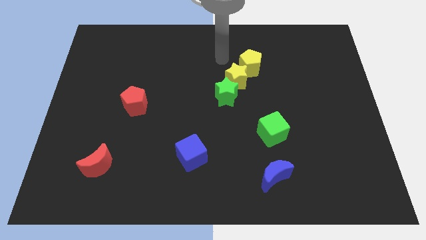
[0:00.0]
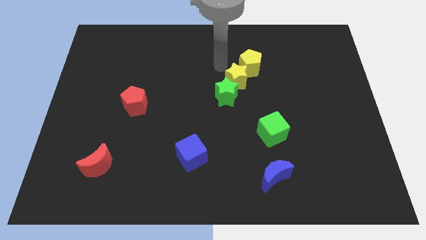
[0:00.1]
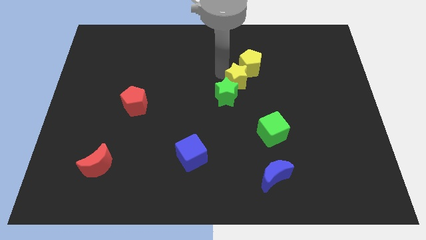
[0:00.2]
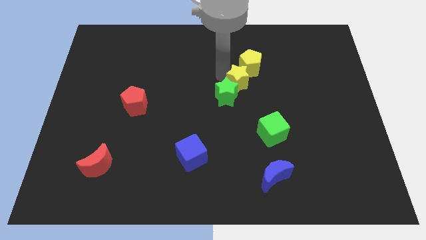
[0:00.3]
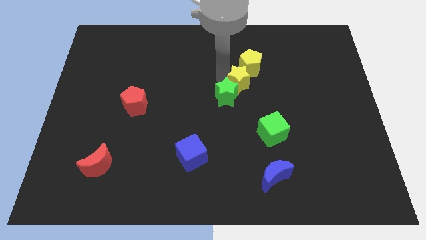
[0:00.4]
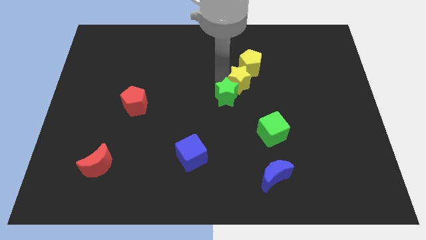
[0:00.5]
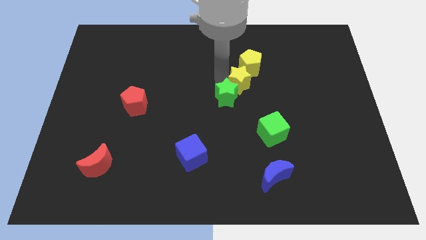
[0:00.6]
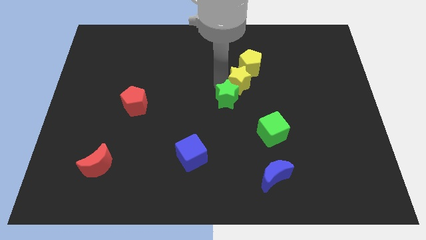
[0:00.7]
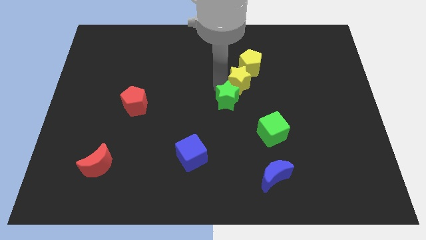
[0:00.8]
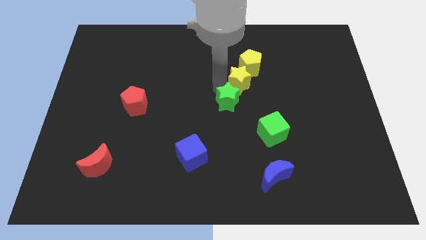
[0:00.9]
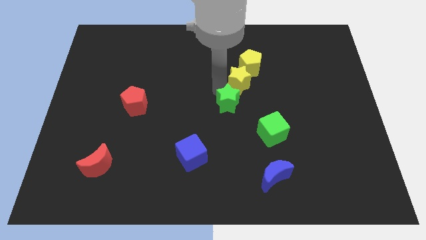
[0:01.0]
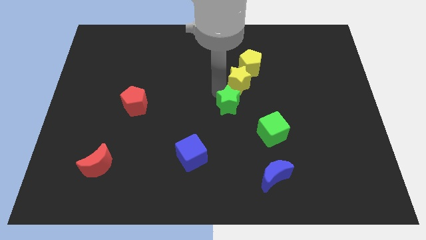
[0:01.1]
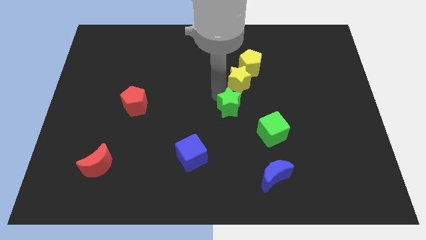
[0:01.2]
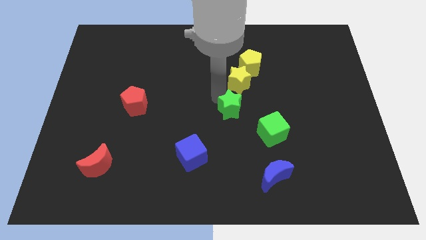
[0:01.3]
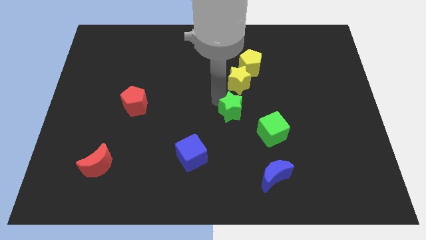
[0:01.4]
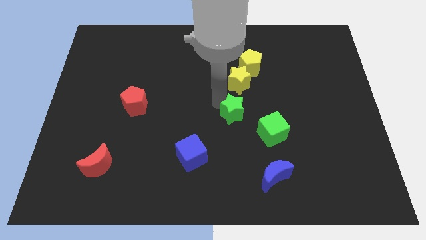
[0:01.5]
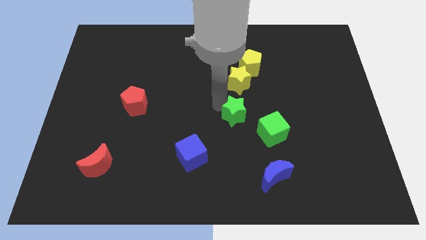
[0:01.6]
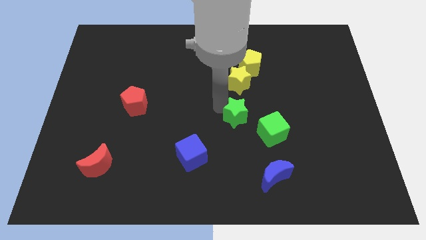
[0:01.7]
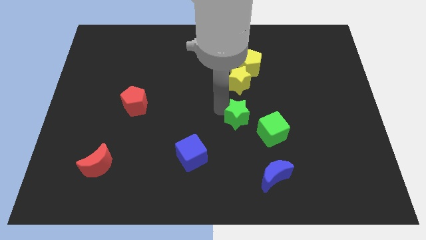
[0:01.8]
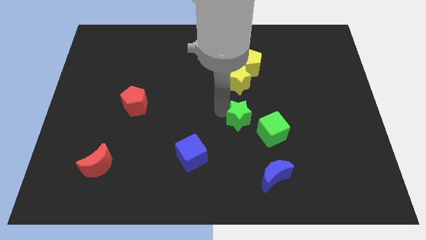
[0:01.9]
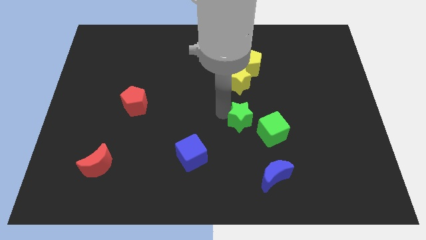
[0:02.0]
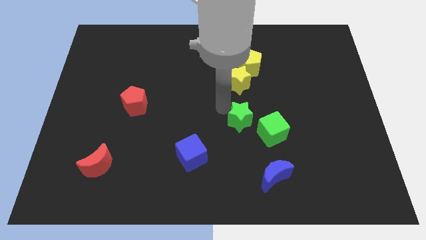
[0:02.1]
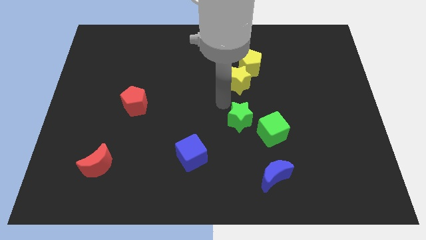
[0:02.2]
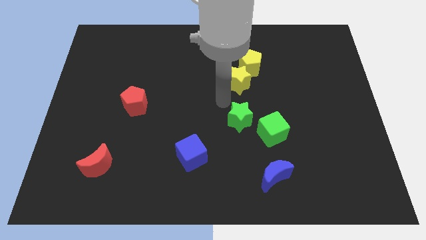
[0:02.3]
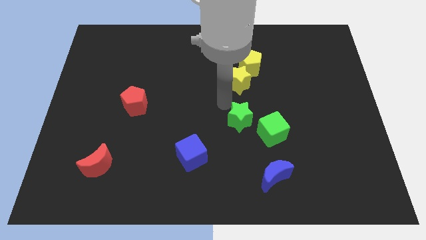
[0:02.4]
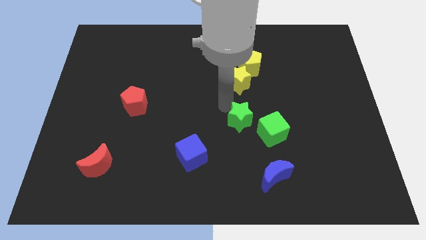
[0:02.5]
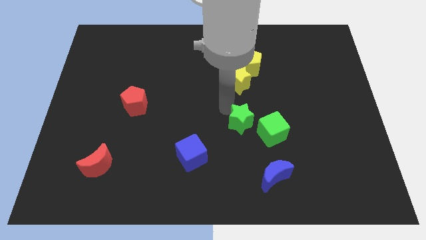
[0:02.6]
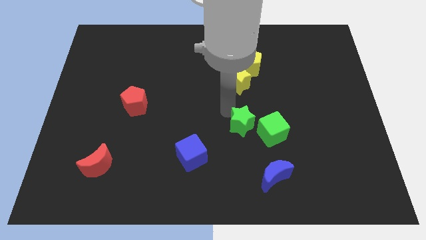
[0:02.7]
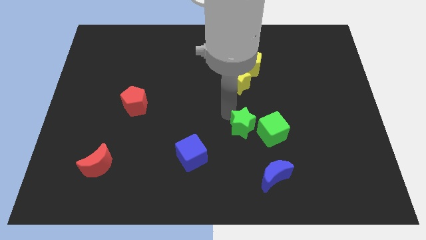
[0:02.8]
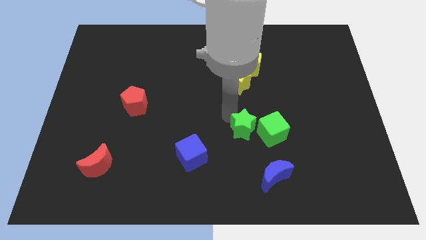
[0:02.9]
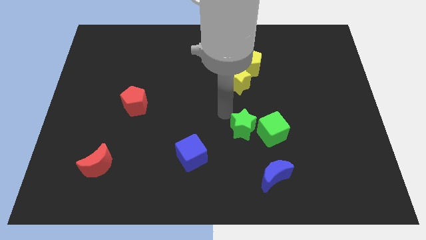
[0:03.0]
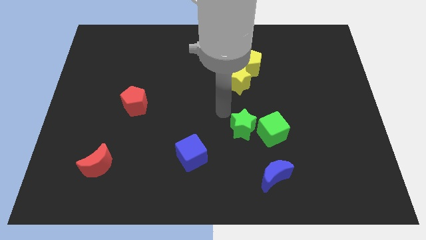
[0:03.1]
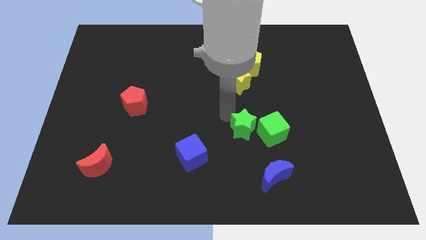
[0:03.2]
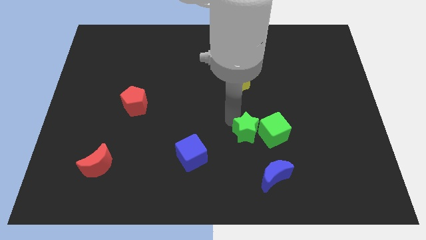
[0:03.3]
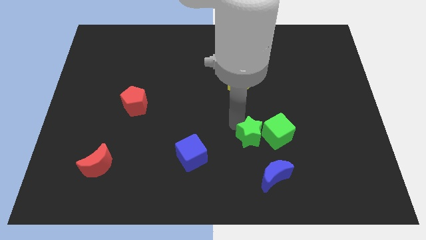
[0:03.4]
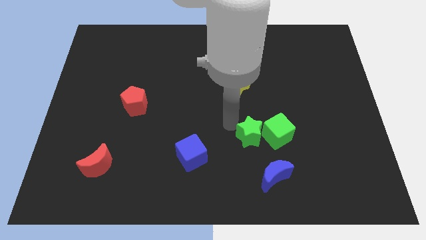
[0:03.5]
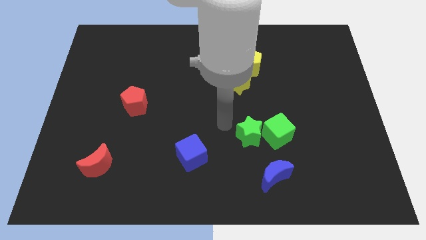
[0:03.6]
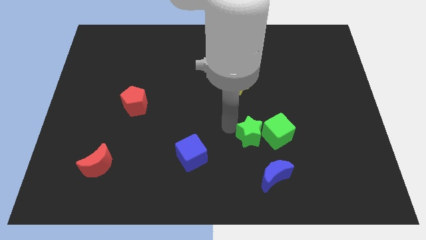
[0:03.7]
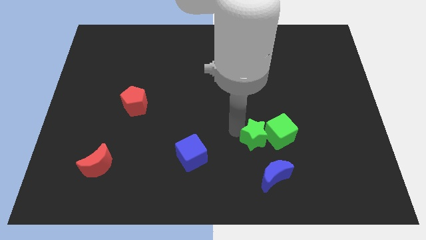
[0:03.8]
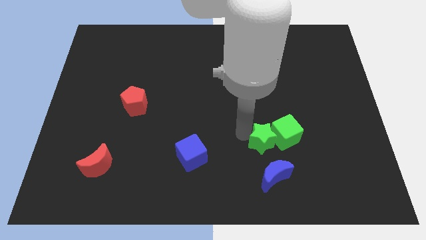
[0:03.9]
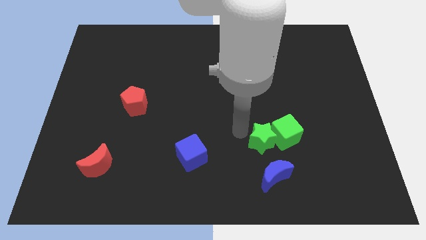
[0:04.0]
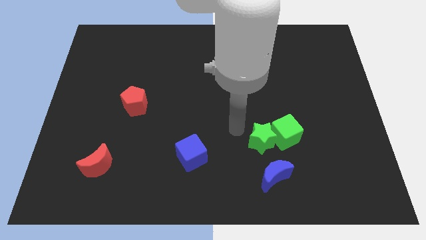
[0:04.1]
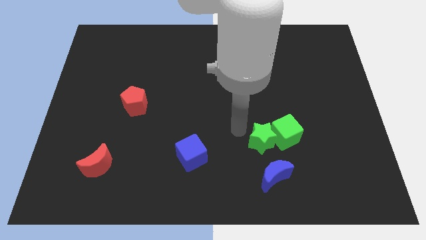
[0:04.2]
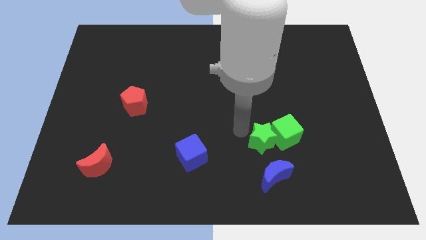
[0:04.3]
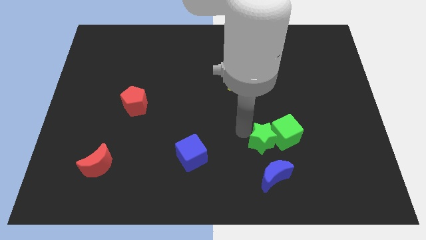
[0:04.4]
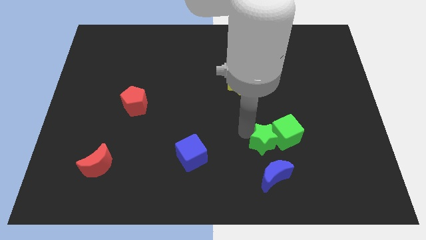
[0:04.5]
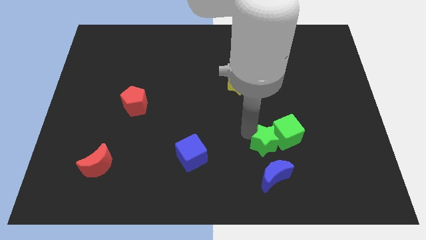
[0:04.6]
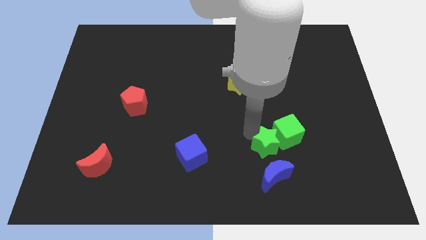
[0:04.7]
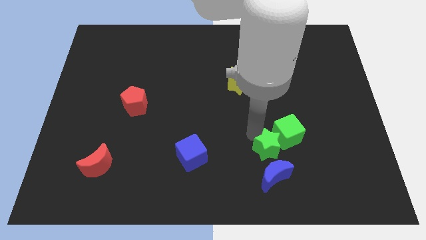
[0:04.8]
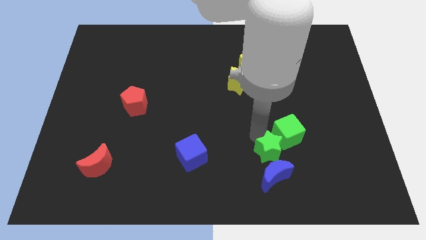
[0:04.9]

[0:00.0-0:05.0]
move the green star to the top right of the blue moon

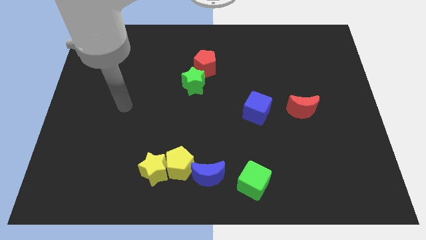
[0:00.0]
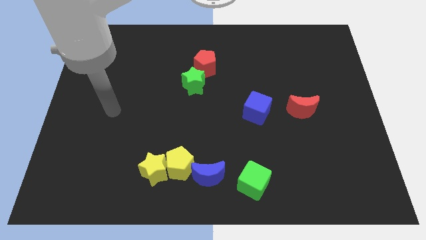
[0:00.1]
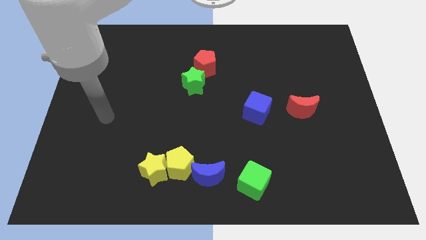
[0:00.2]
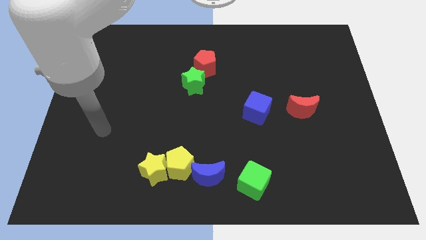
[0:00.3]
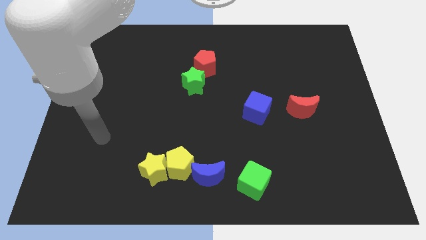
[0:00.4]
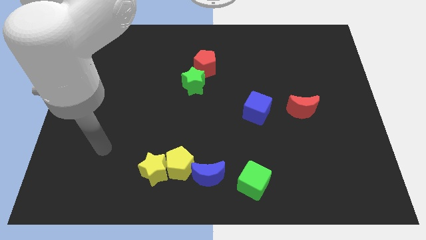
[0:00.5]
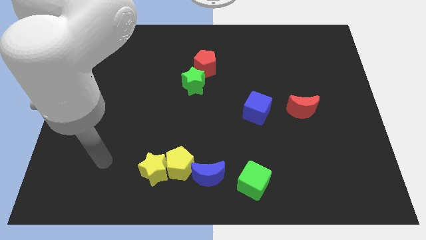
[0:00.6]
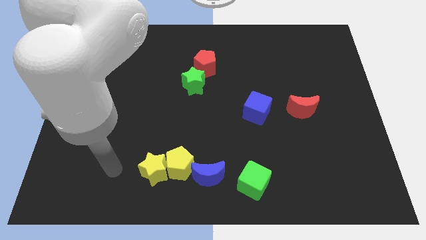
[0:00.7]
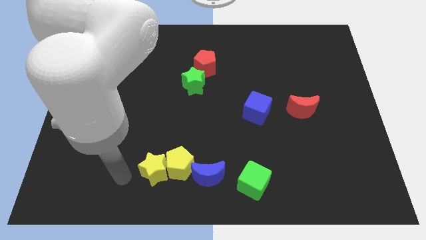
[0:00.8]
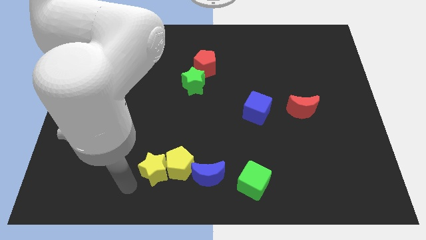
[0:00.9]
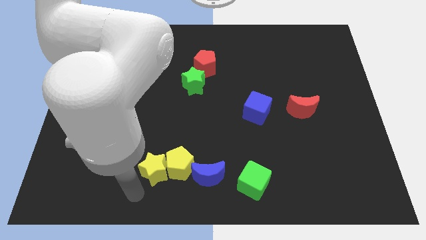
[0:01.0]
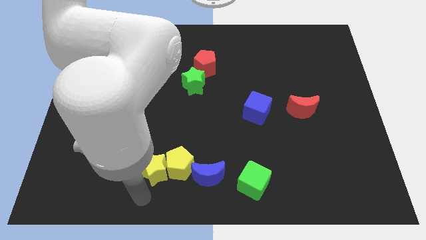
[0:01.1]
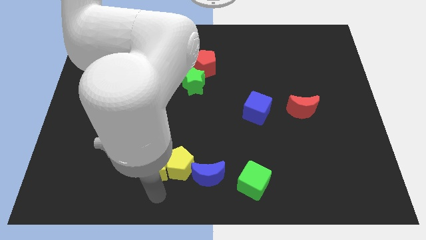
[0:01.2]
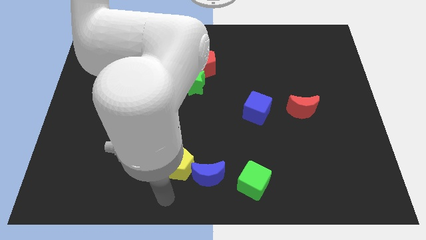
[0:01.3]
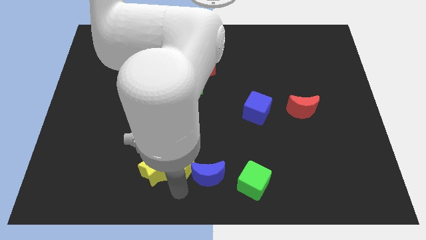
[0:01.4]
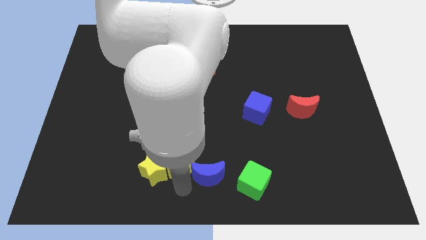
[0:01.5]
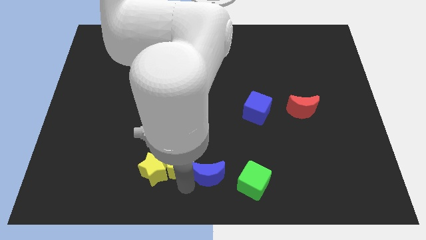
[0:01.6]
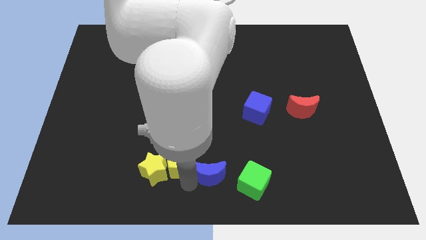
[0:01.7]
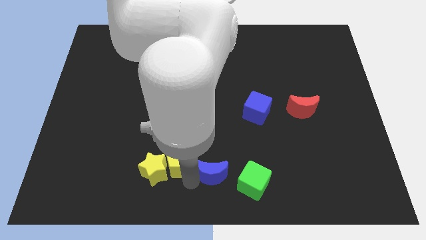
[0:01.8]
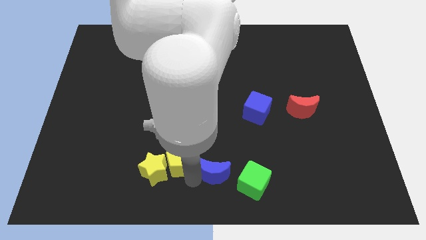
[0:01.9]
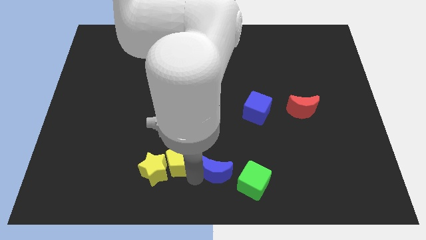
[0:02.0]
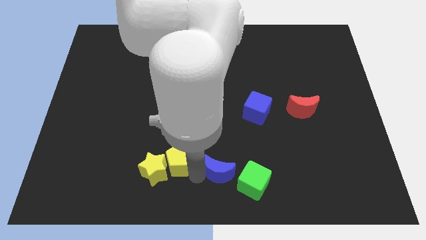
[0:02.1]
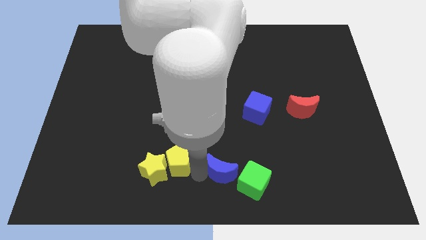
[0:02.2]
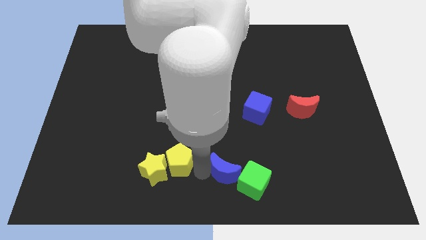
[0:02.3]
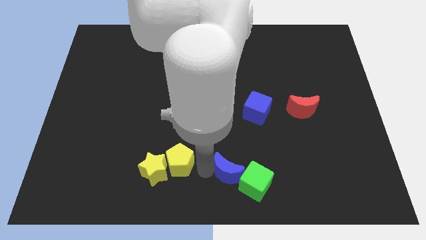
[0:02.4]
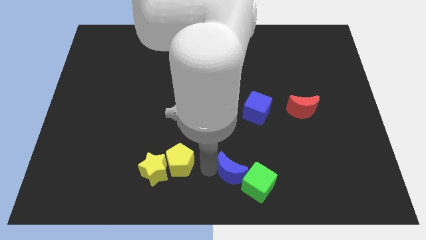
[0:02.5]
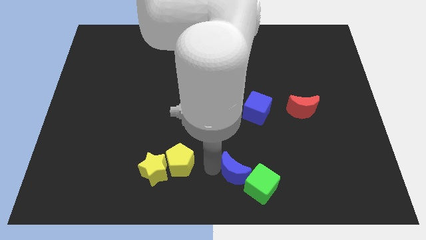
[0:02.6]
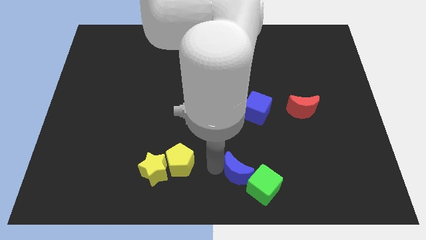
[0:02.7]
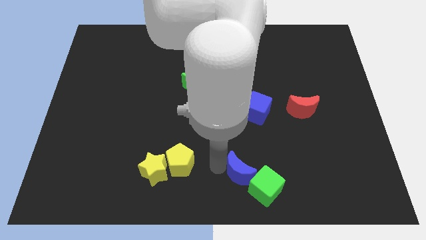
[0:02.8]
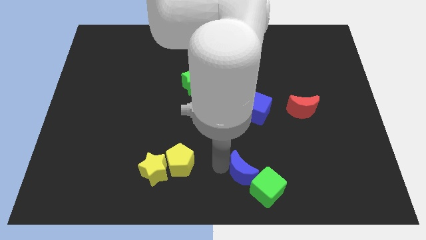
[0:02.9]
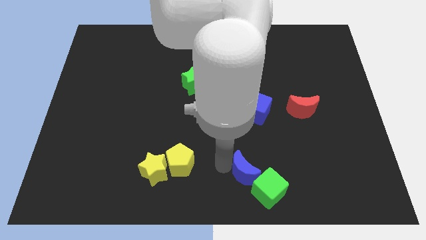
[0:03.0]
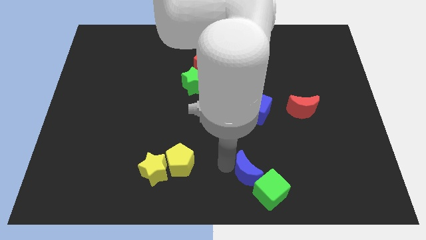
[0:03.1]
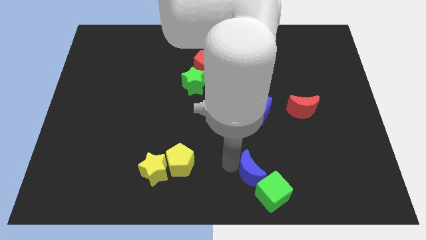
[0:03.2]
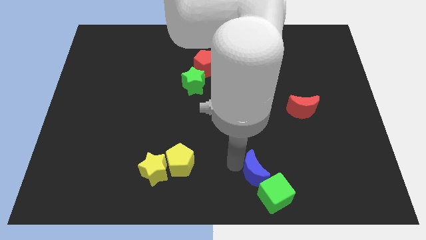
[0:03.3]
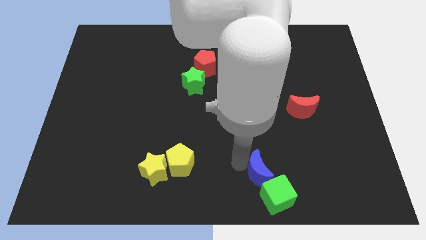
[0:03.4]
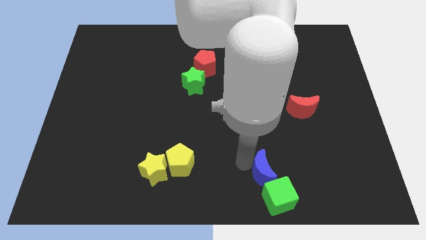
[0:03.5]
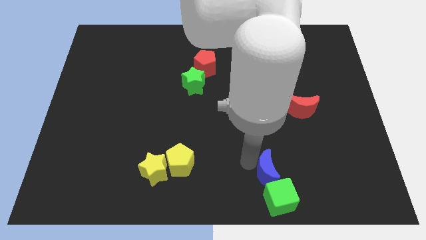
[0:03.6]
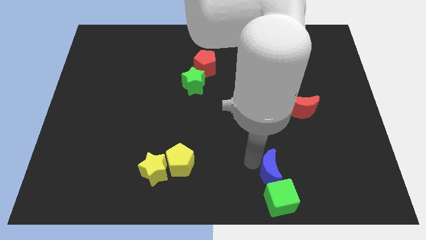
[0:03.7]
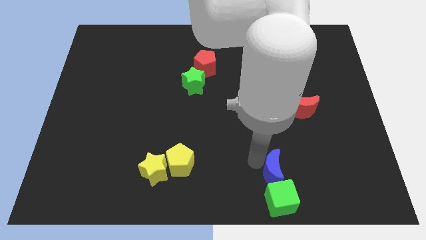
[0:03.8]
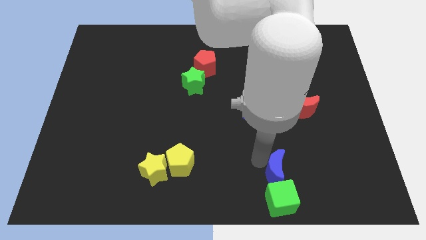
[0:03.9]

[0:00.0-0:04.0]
put the blue moon diagonally up and to the right of the green cube
